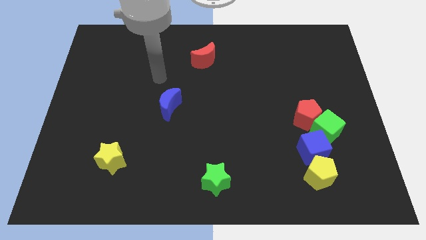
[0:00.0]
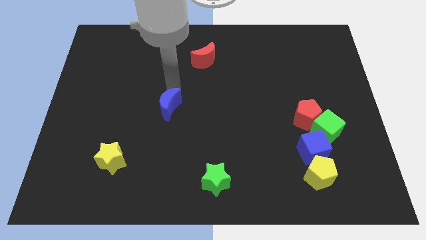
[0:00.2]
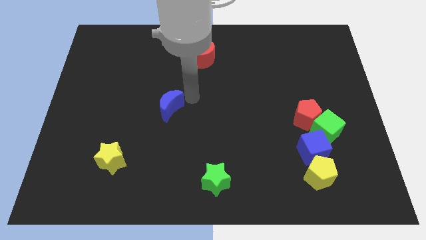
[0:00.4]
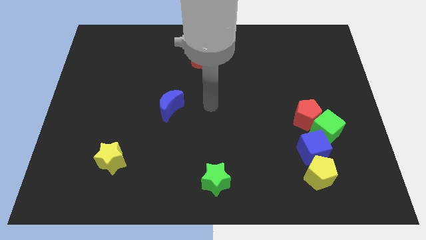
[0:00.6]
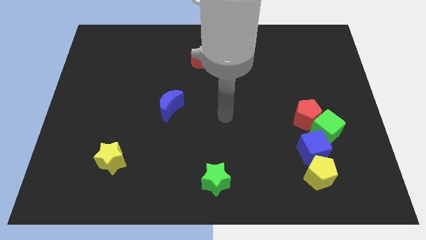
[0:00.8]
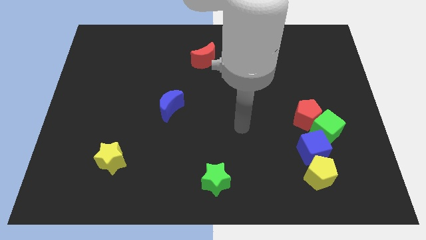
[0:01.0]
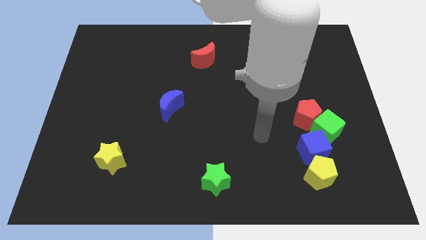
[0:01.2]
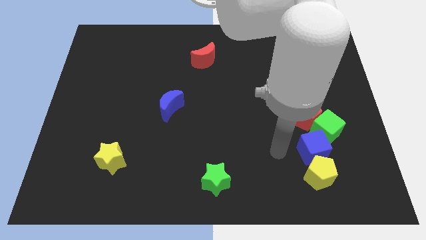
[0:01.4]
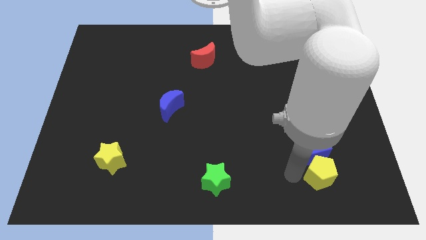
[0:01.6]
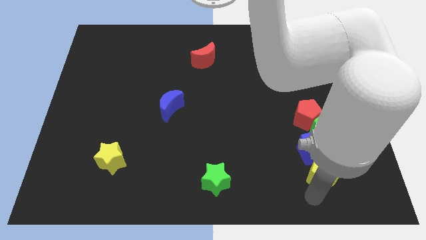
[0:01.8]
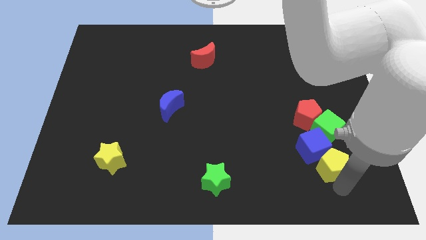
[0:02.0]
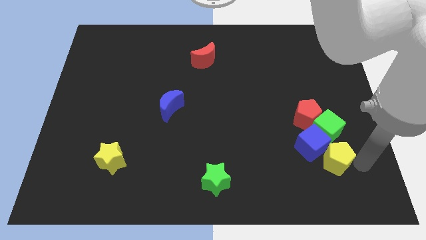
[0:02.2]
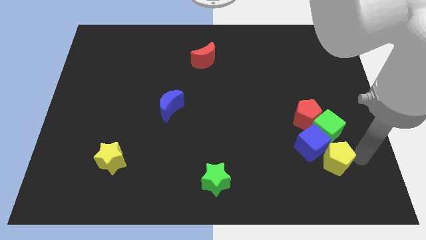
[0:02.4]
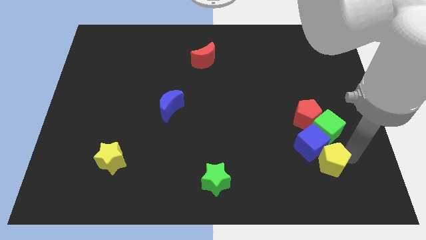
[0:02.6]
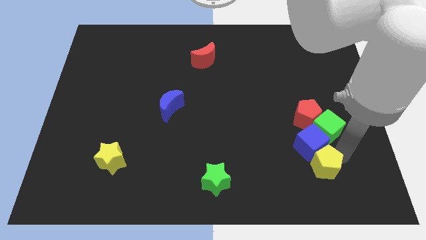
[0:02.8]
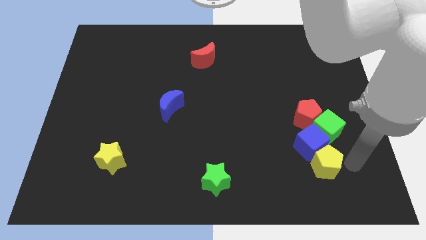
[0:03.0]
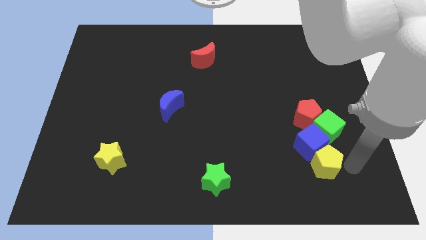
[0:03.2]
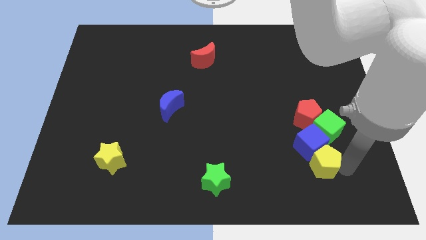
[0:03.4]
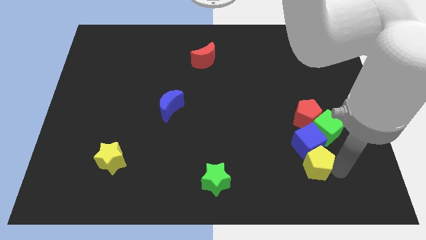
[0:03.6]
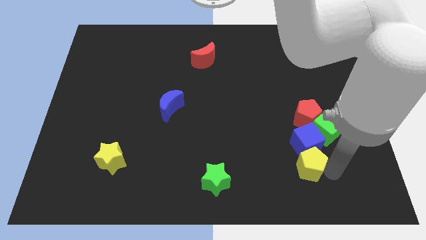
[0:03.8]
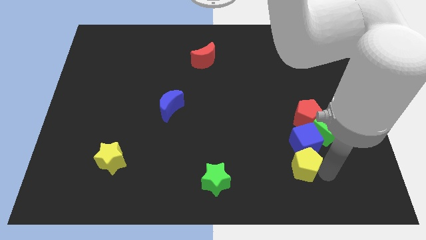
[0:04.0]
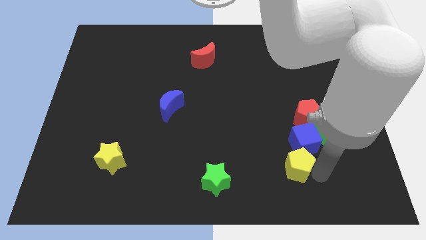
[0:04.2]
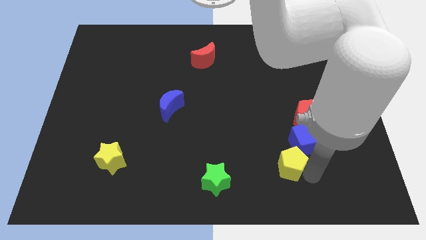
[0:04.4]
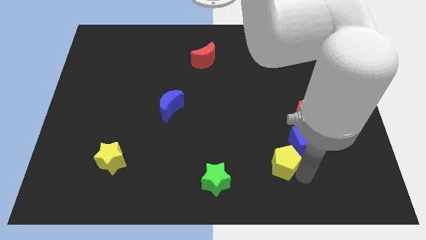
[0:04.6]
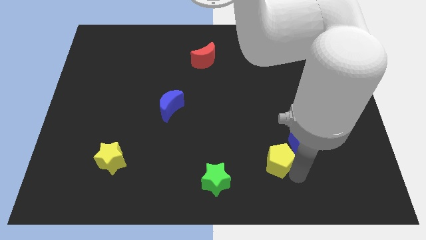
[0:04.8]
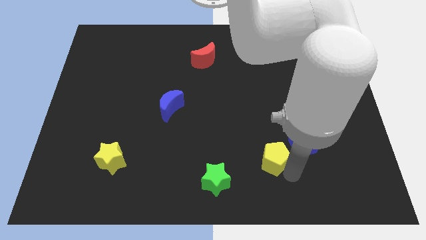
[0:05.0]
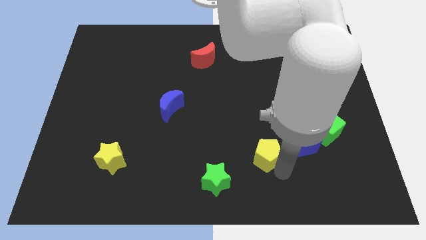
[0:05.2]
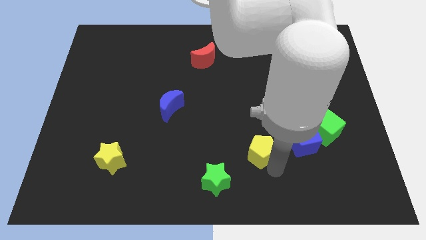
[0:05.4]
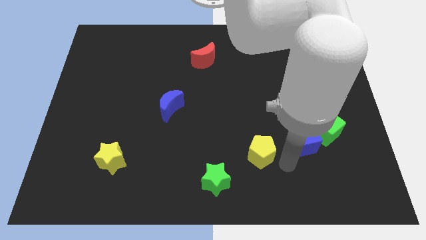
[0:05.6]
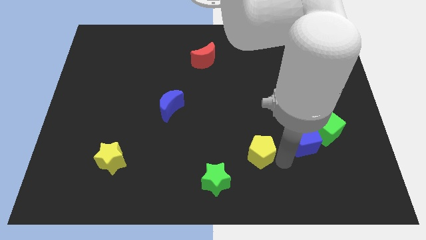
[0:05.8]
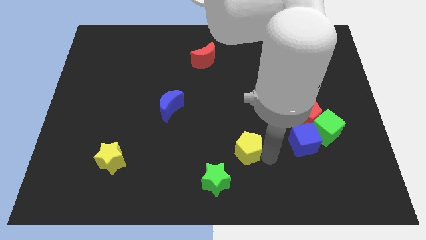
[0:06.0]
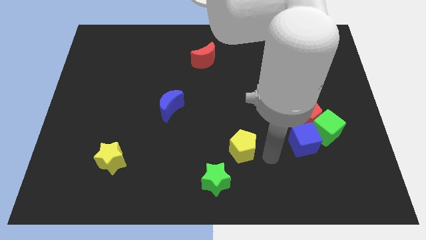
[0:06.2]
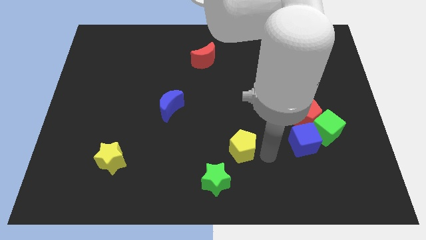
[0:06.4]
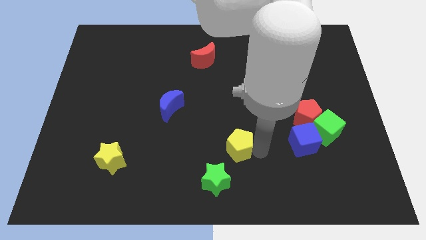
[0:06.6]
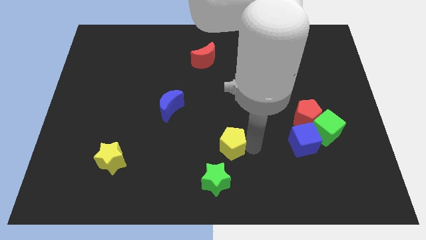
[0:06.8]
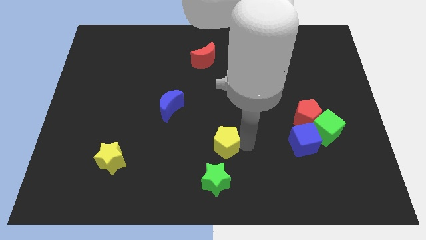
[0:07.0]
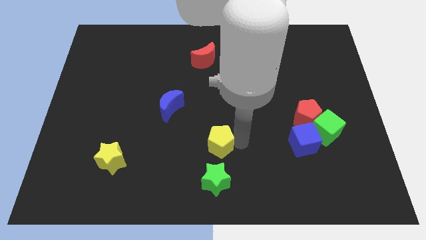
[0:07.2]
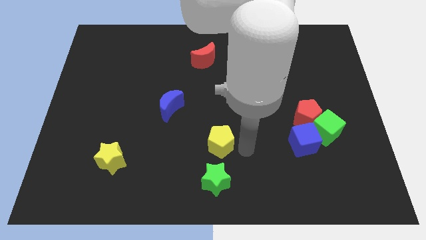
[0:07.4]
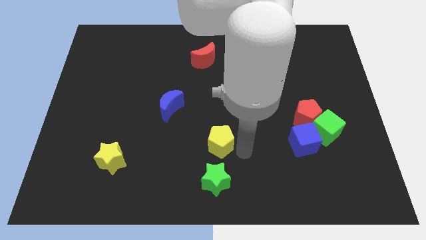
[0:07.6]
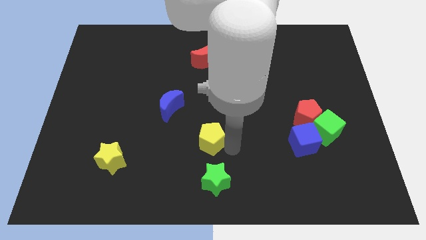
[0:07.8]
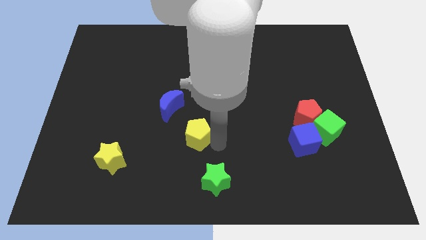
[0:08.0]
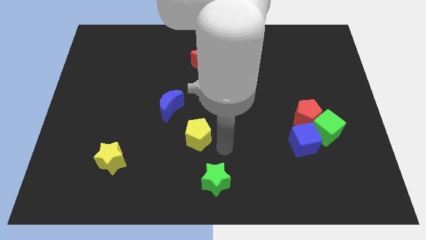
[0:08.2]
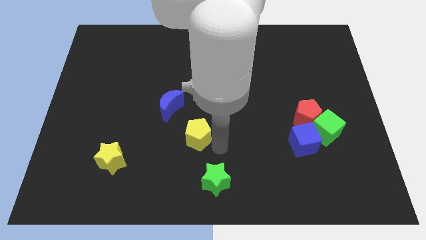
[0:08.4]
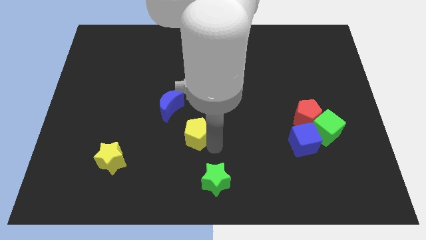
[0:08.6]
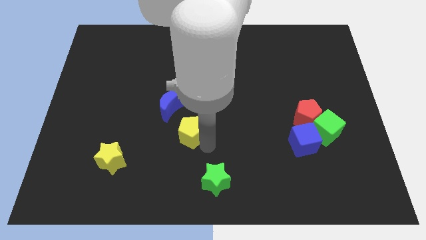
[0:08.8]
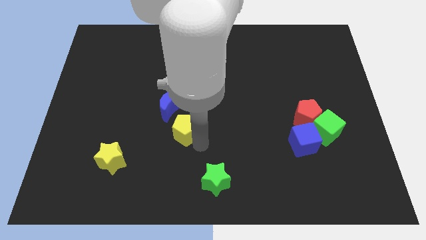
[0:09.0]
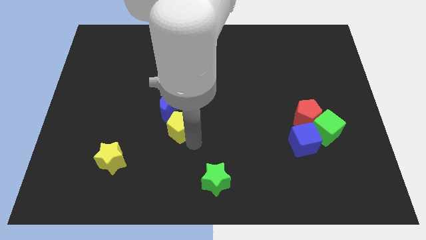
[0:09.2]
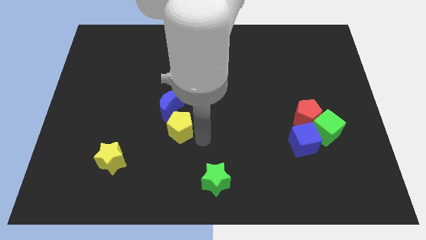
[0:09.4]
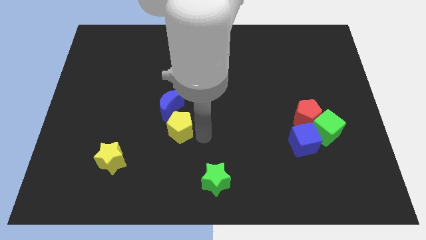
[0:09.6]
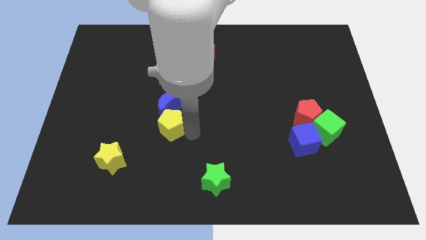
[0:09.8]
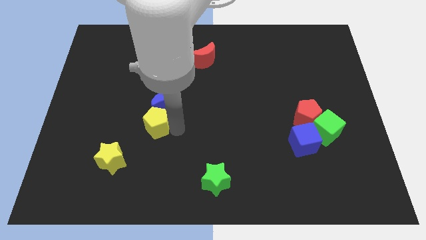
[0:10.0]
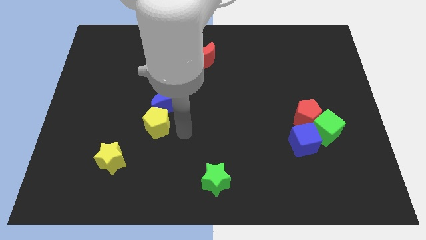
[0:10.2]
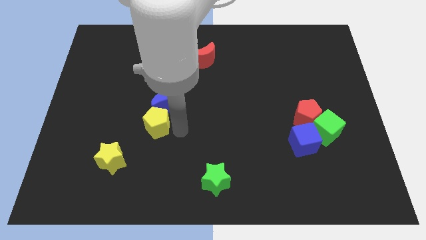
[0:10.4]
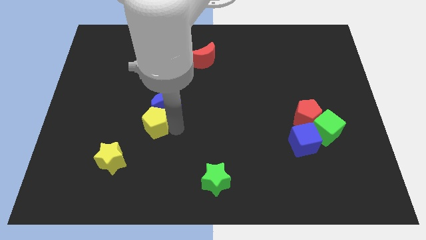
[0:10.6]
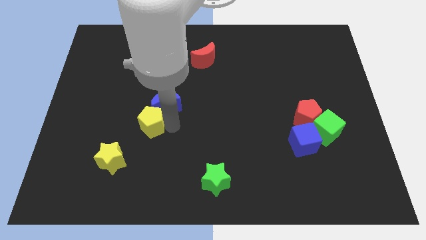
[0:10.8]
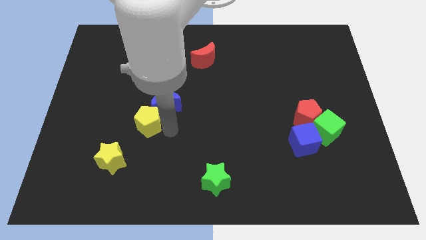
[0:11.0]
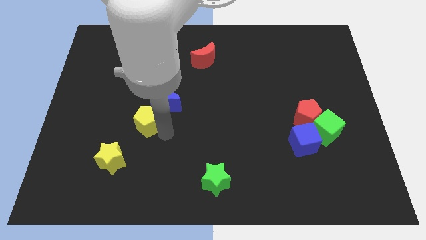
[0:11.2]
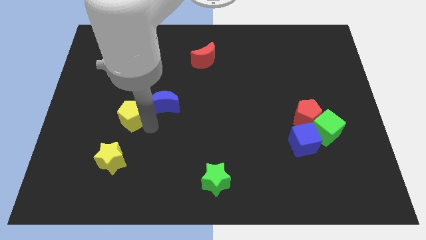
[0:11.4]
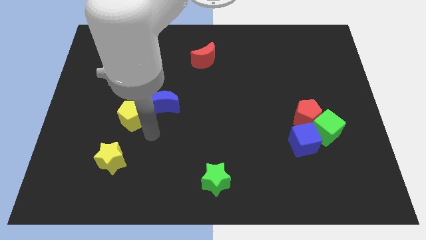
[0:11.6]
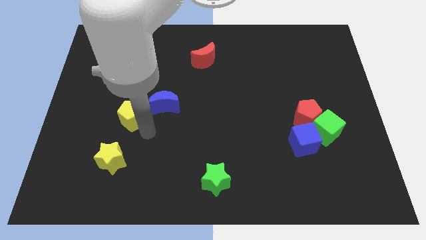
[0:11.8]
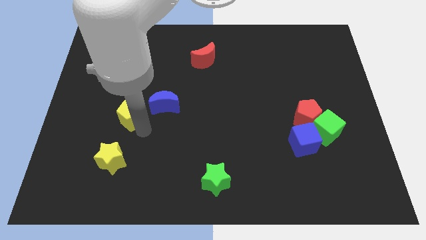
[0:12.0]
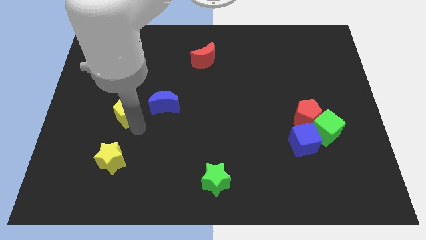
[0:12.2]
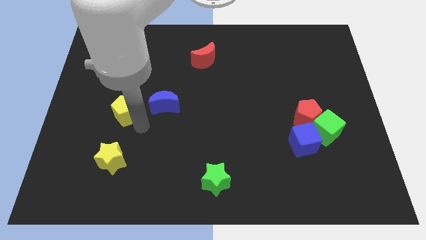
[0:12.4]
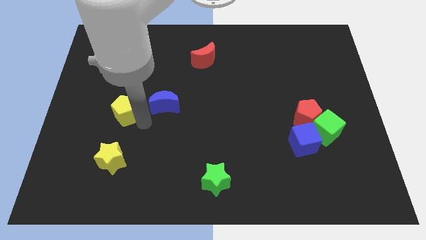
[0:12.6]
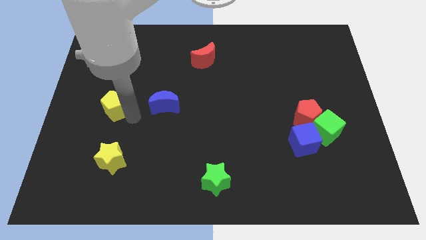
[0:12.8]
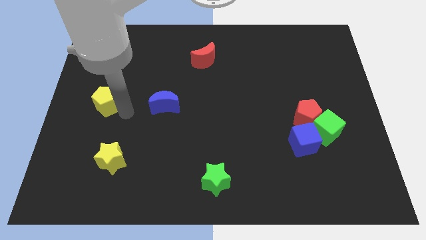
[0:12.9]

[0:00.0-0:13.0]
slide the yellow pentagon to the left side

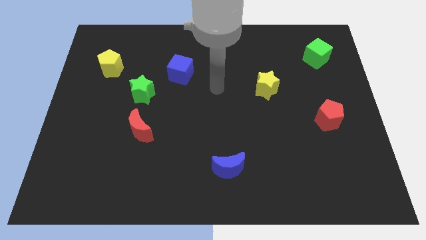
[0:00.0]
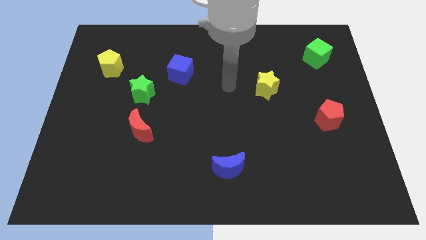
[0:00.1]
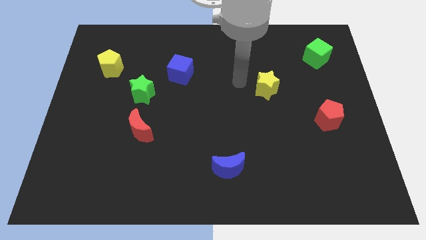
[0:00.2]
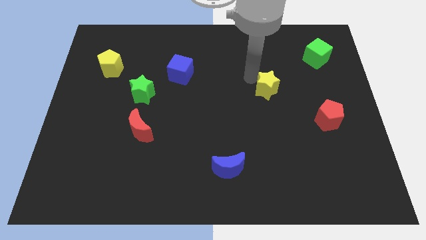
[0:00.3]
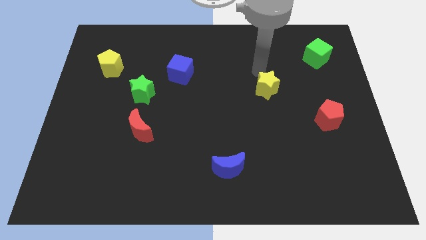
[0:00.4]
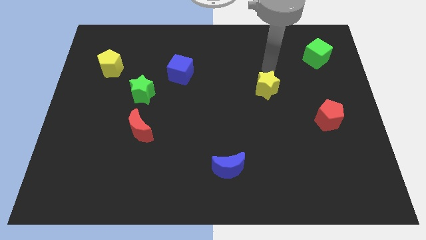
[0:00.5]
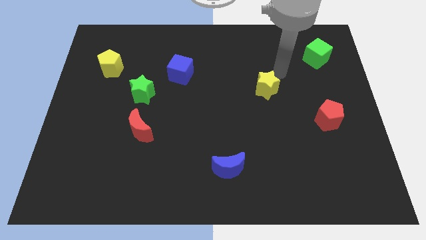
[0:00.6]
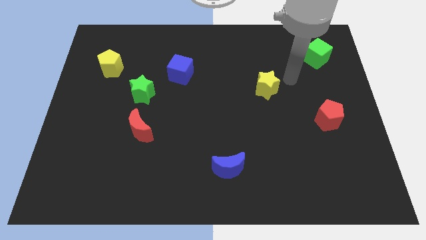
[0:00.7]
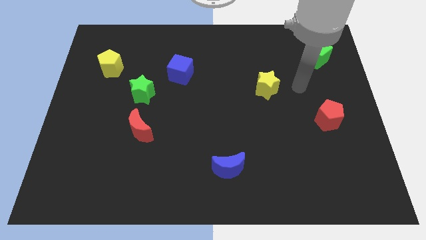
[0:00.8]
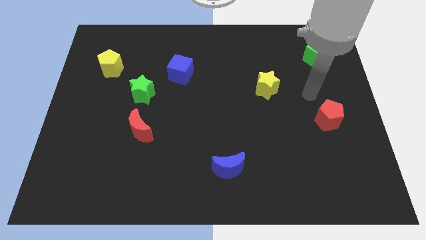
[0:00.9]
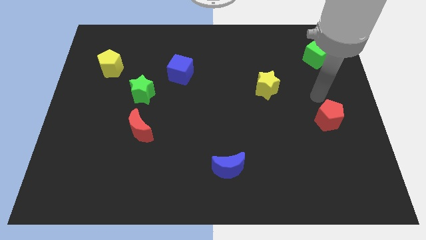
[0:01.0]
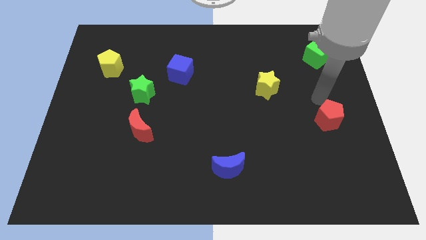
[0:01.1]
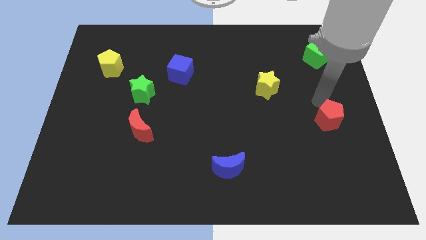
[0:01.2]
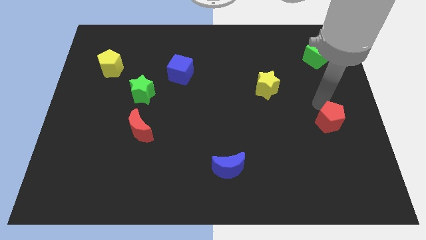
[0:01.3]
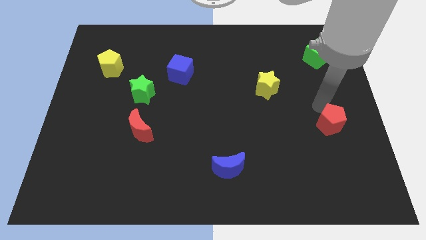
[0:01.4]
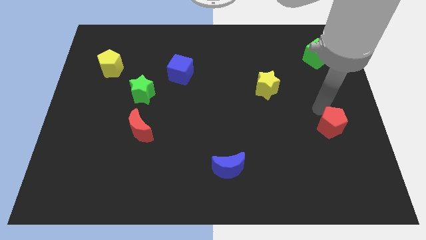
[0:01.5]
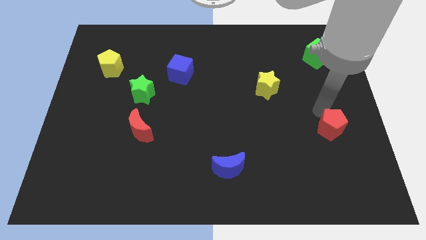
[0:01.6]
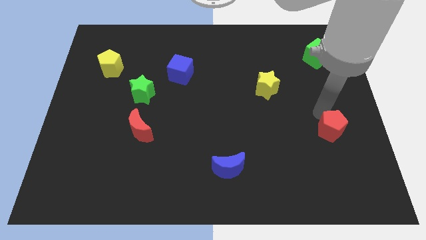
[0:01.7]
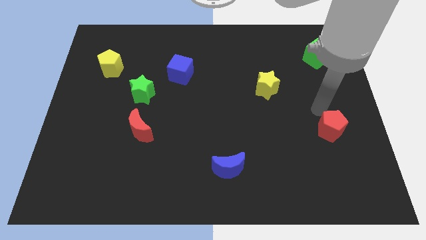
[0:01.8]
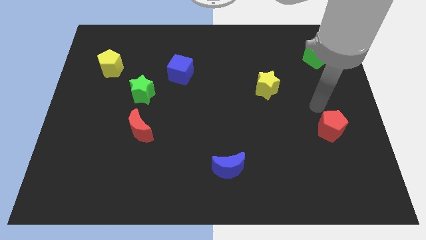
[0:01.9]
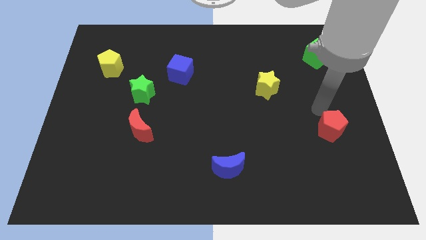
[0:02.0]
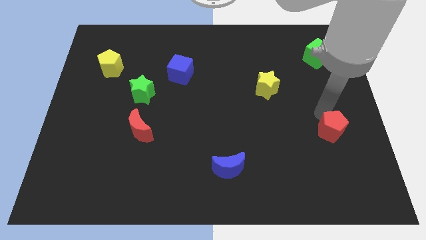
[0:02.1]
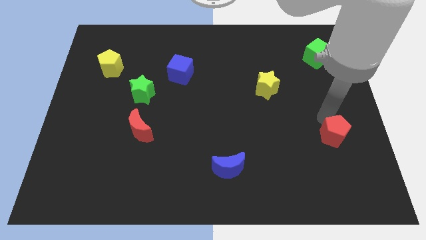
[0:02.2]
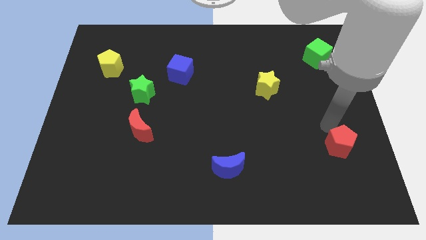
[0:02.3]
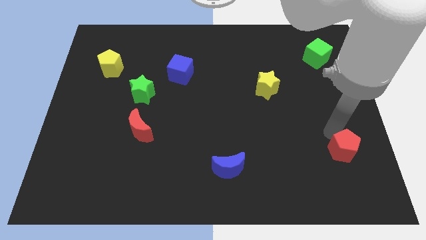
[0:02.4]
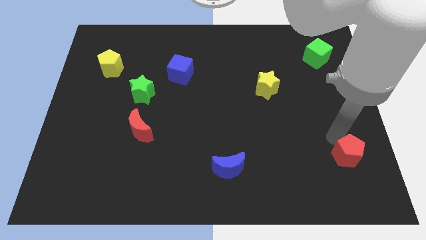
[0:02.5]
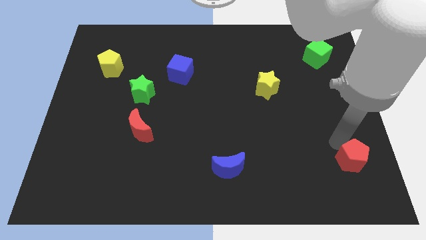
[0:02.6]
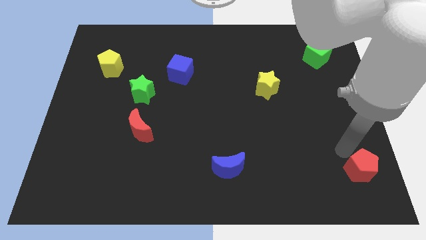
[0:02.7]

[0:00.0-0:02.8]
put the red pentagon to the lower right corner
